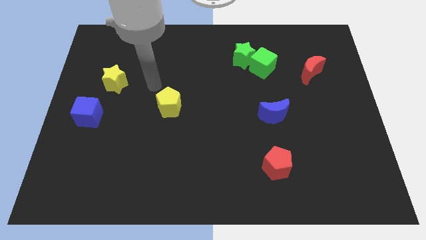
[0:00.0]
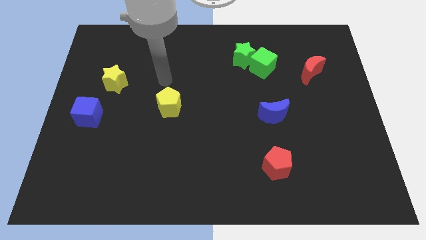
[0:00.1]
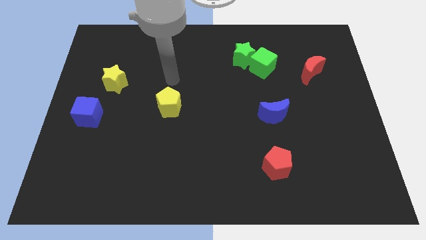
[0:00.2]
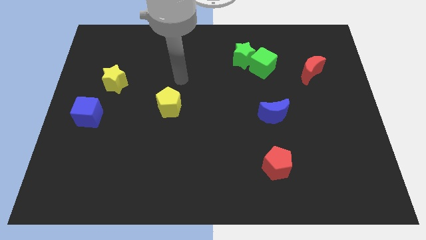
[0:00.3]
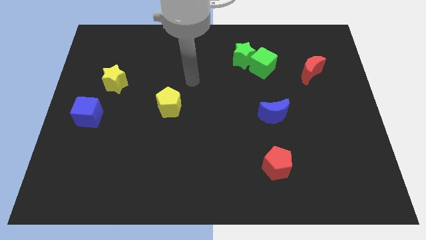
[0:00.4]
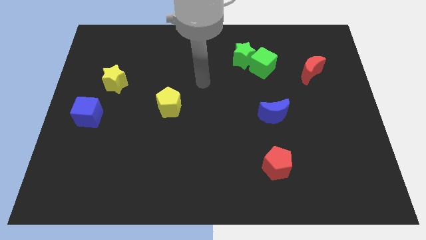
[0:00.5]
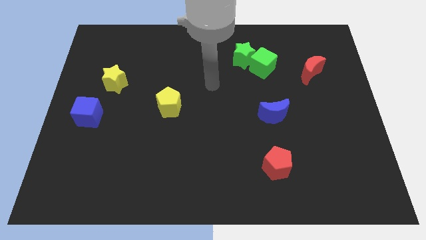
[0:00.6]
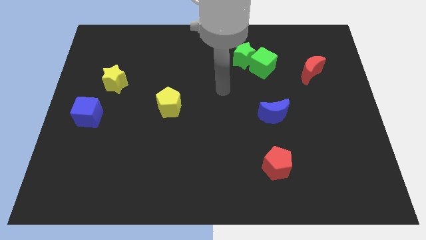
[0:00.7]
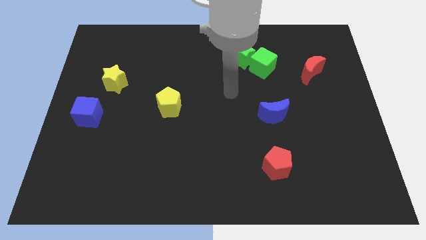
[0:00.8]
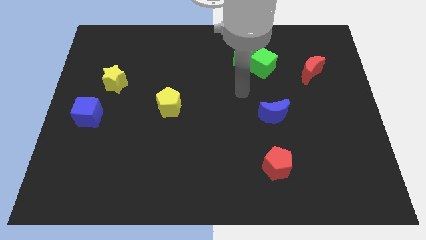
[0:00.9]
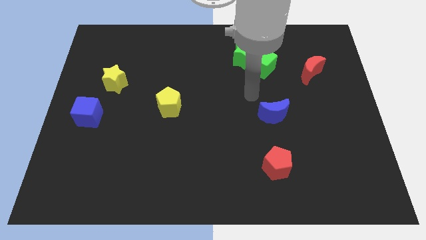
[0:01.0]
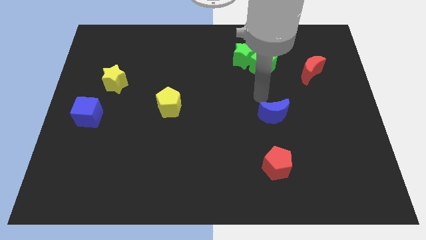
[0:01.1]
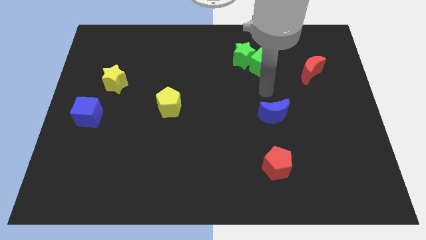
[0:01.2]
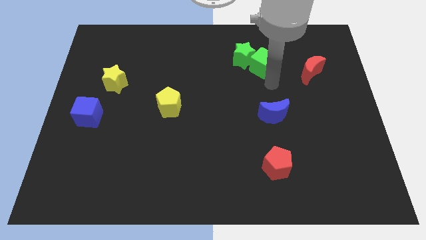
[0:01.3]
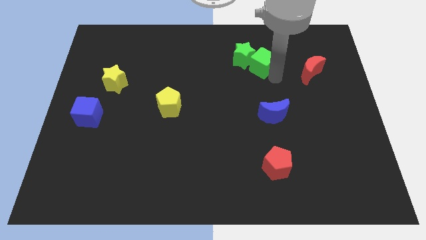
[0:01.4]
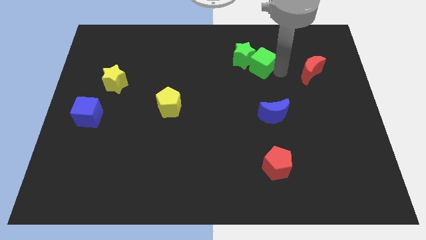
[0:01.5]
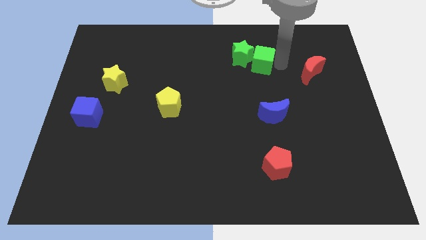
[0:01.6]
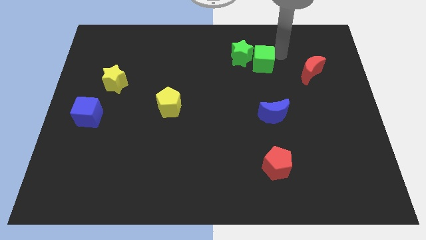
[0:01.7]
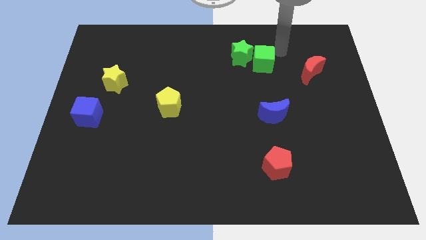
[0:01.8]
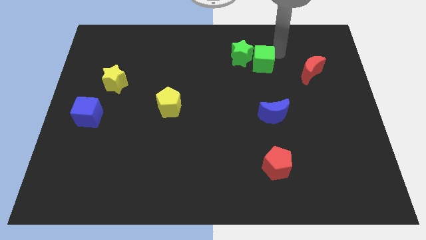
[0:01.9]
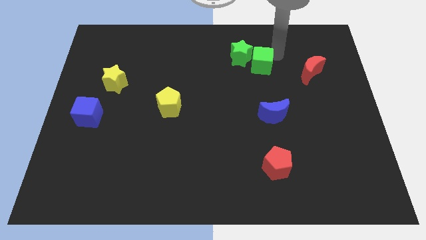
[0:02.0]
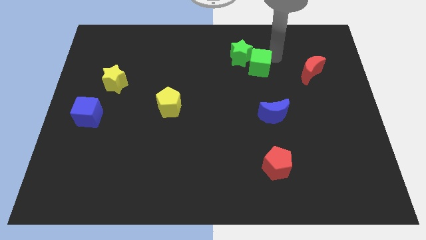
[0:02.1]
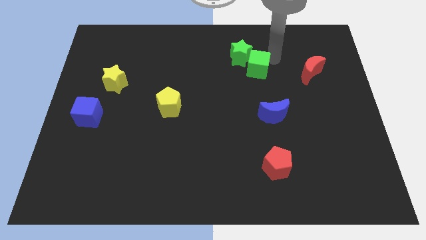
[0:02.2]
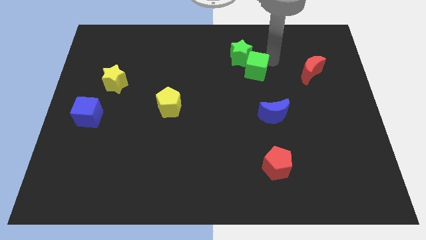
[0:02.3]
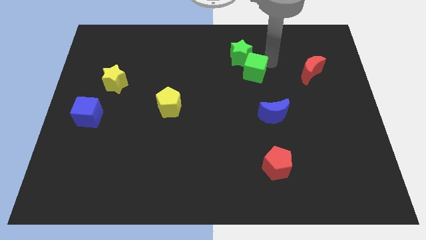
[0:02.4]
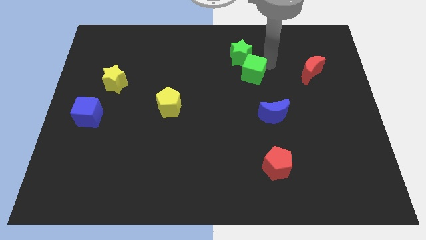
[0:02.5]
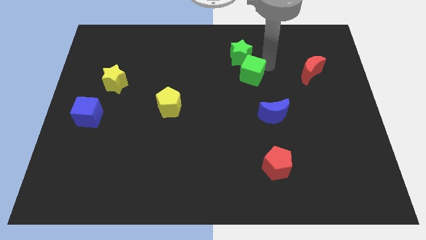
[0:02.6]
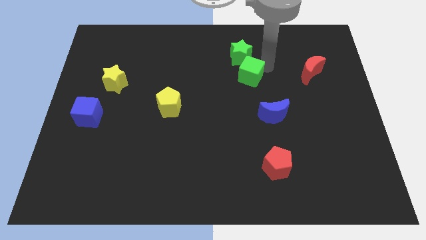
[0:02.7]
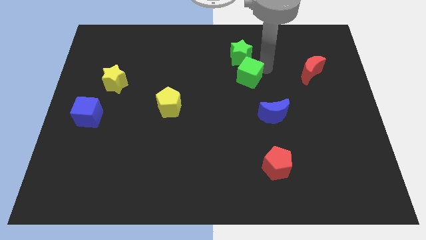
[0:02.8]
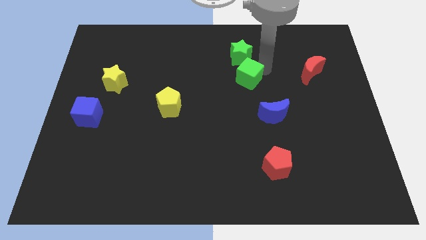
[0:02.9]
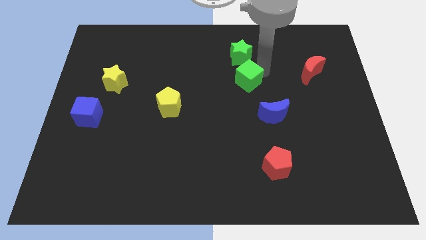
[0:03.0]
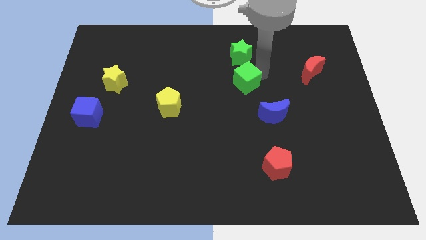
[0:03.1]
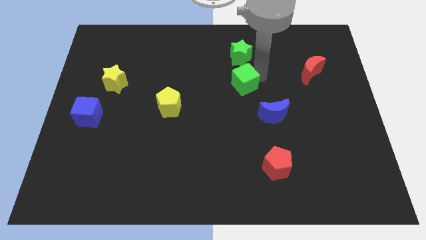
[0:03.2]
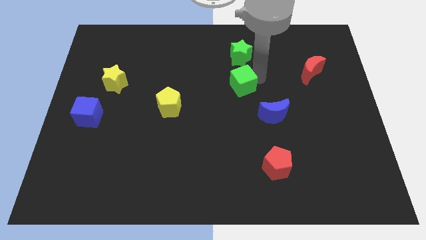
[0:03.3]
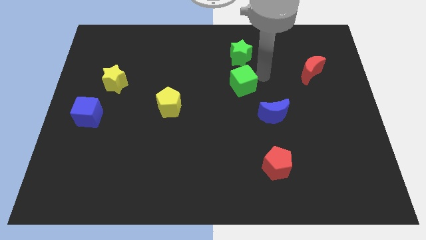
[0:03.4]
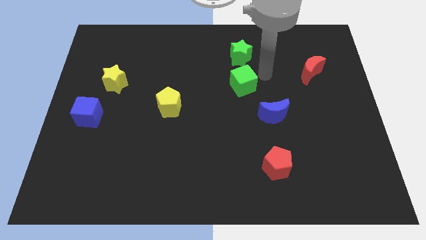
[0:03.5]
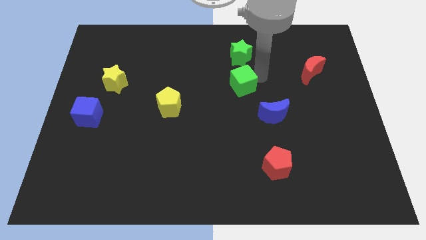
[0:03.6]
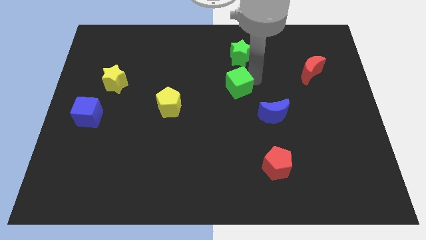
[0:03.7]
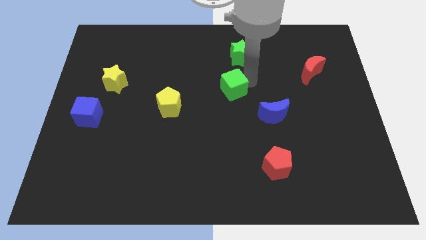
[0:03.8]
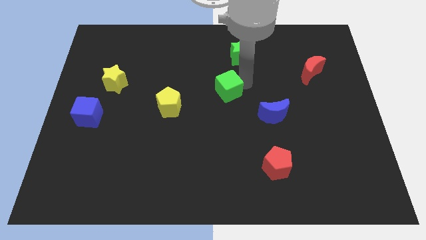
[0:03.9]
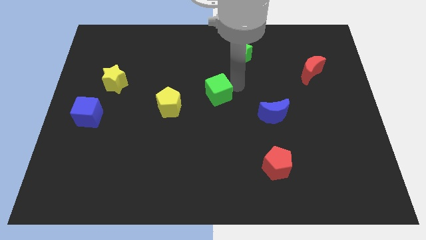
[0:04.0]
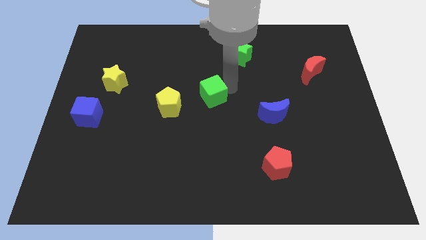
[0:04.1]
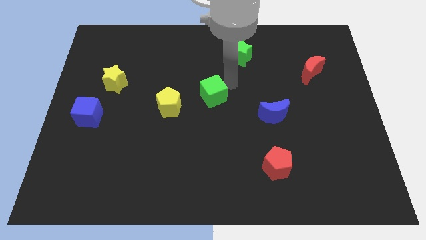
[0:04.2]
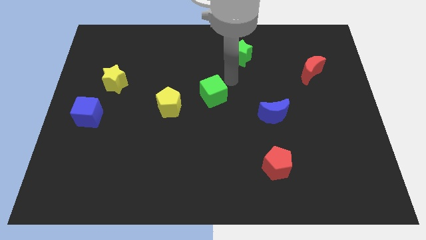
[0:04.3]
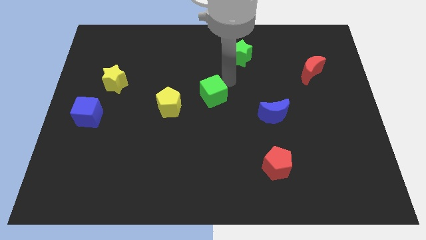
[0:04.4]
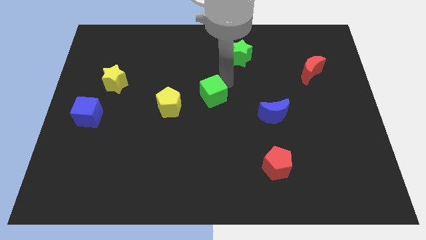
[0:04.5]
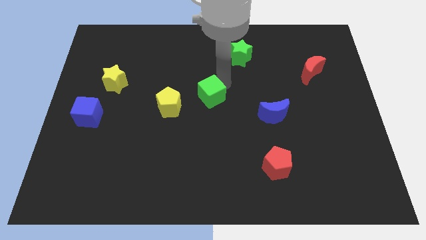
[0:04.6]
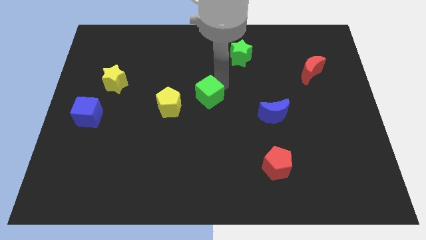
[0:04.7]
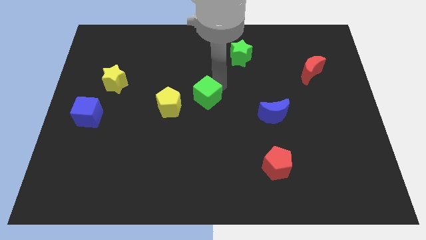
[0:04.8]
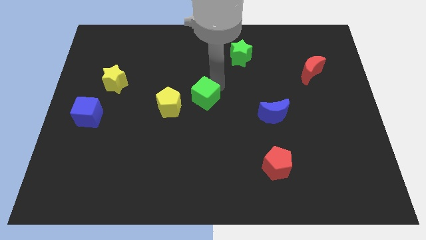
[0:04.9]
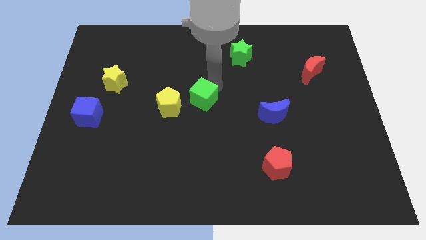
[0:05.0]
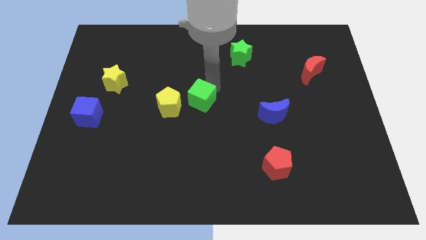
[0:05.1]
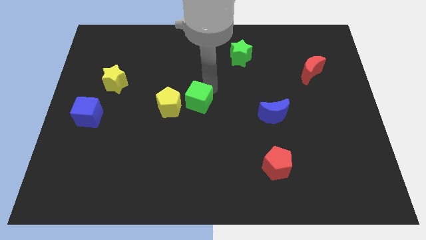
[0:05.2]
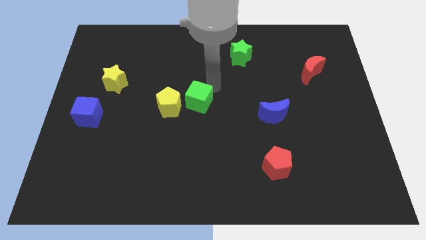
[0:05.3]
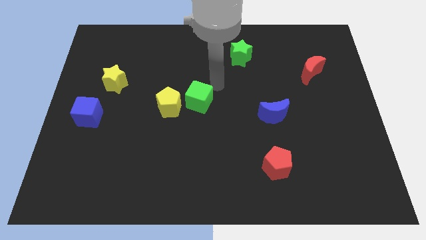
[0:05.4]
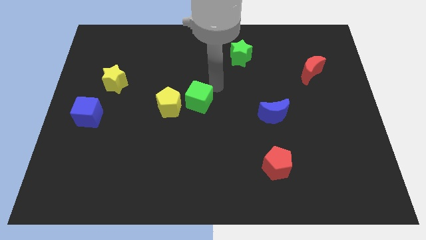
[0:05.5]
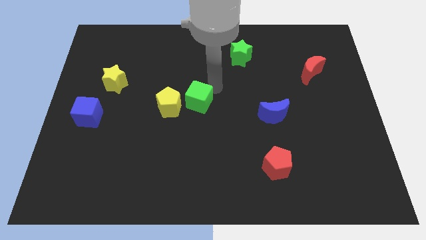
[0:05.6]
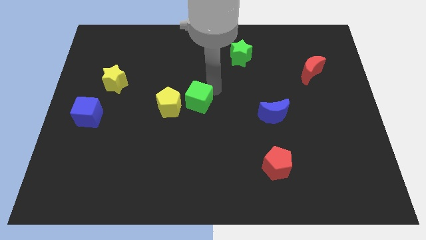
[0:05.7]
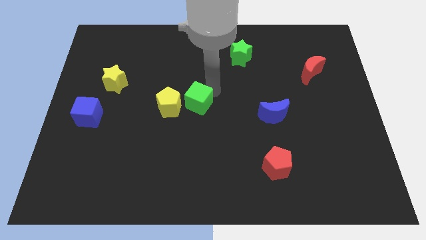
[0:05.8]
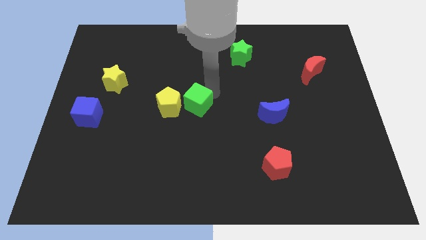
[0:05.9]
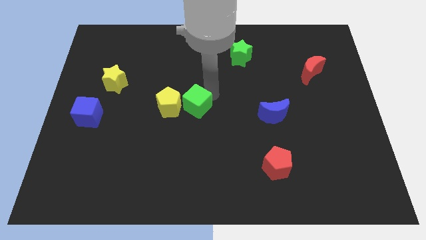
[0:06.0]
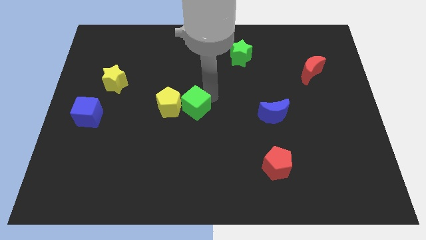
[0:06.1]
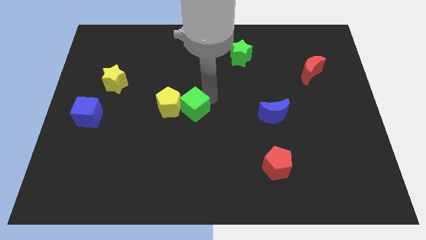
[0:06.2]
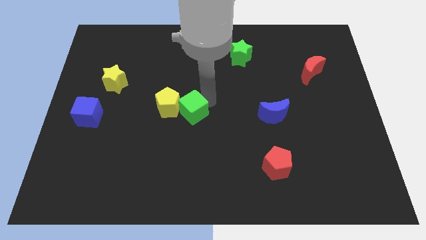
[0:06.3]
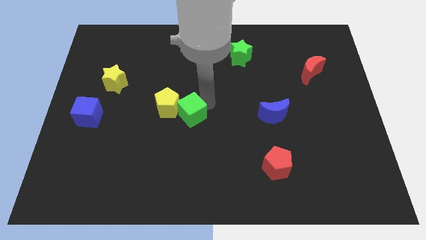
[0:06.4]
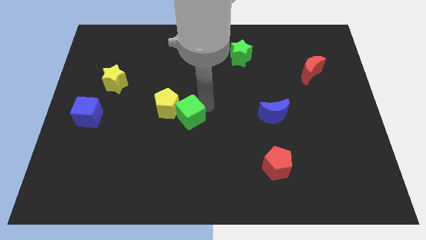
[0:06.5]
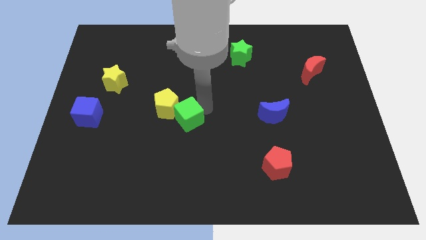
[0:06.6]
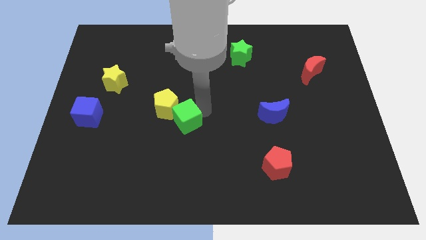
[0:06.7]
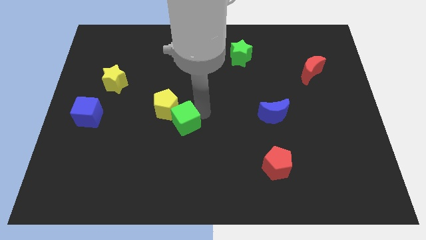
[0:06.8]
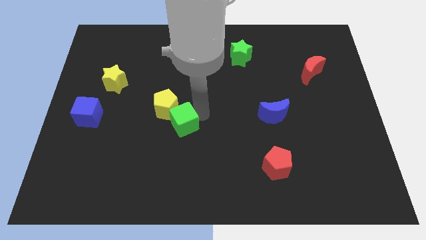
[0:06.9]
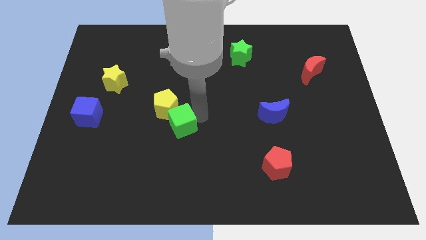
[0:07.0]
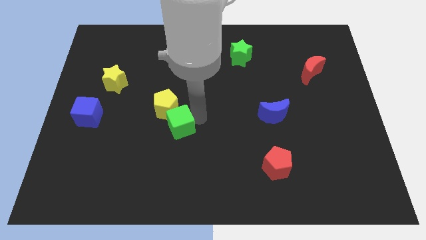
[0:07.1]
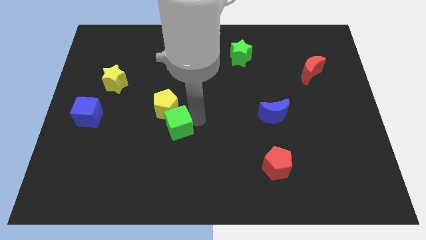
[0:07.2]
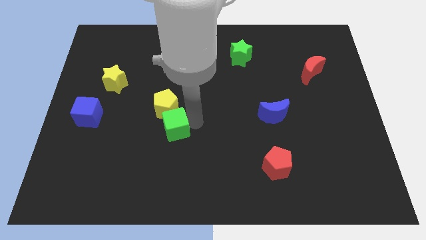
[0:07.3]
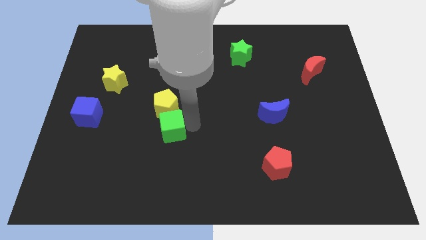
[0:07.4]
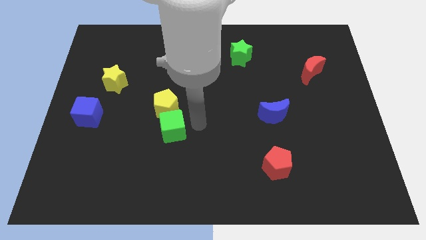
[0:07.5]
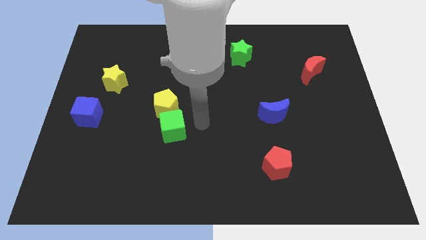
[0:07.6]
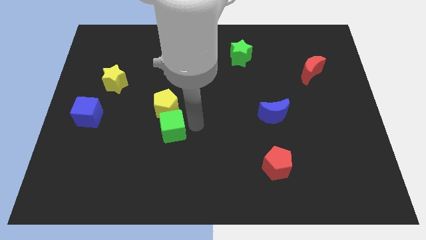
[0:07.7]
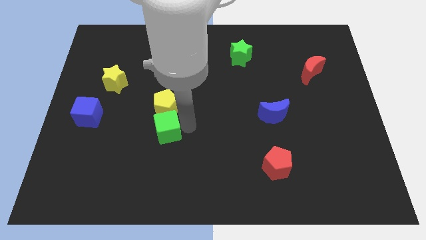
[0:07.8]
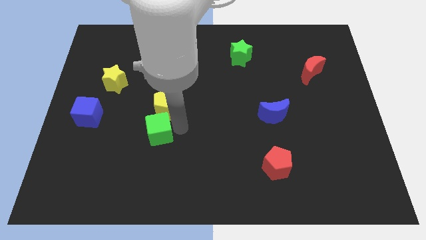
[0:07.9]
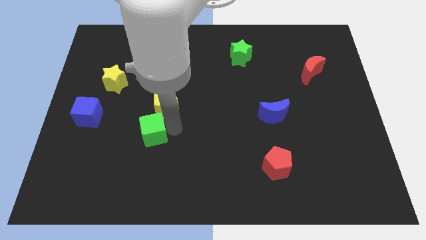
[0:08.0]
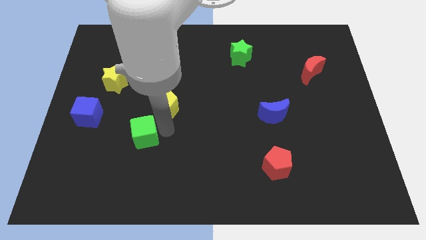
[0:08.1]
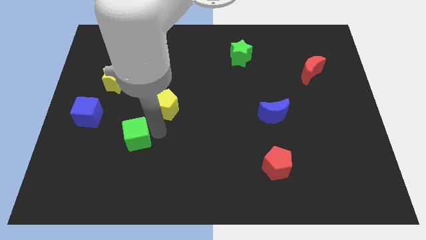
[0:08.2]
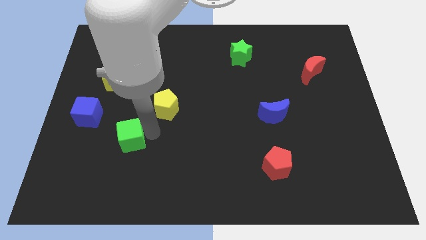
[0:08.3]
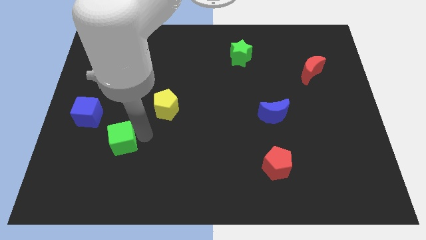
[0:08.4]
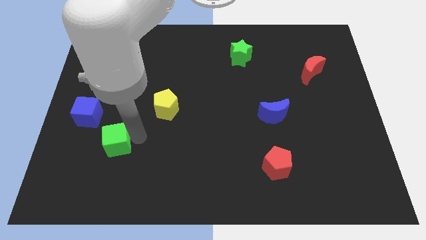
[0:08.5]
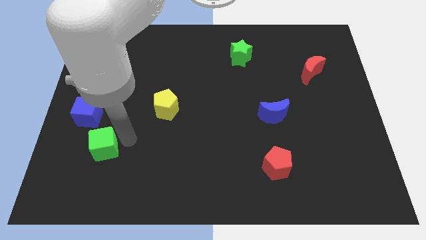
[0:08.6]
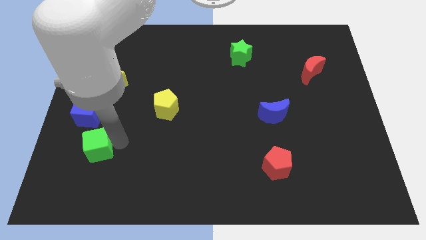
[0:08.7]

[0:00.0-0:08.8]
push the green cube to the bottom side of the blue cube
